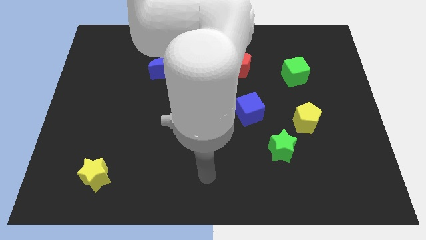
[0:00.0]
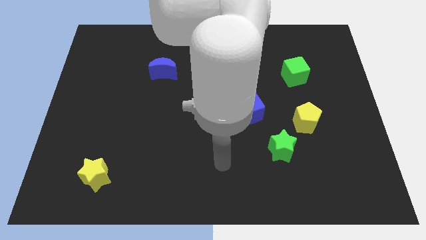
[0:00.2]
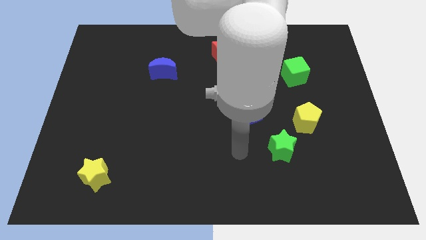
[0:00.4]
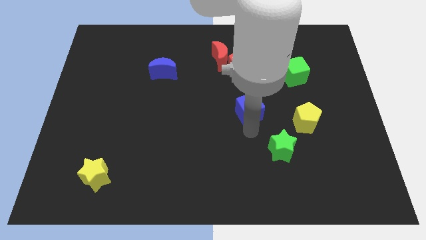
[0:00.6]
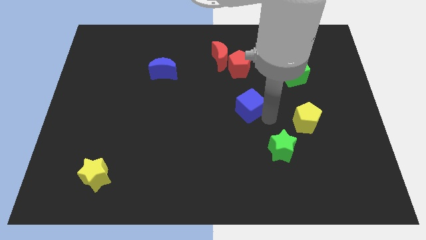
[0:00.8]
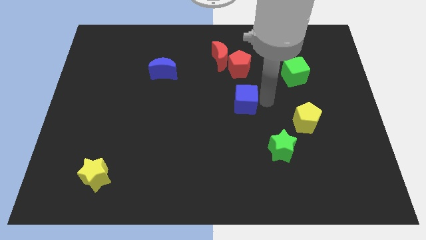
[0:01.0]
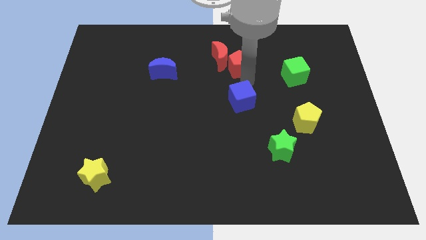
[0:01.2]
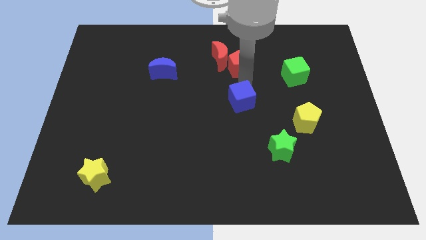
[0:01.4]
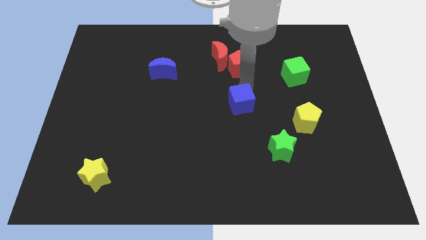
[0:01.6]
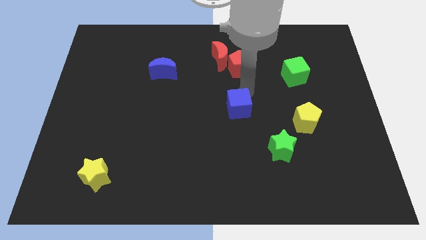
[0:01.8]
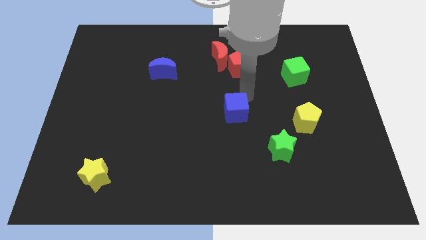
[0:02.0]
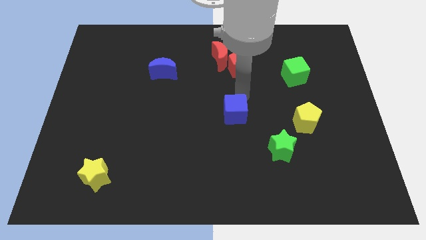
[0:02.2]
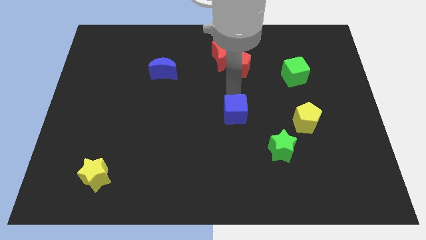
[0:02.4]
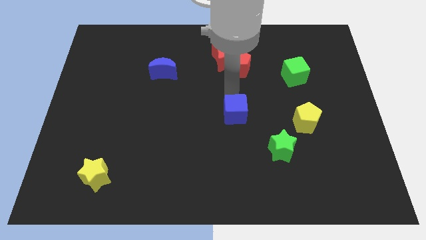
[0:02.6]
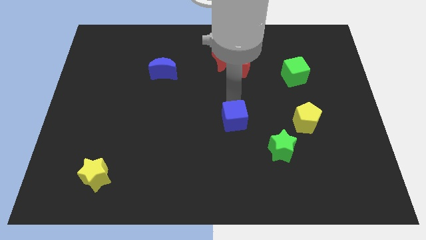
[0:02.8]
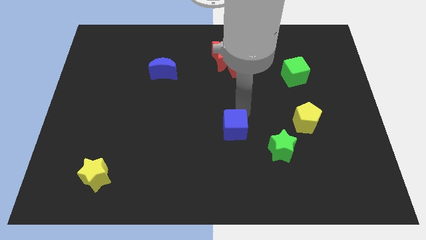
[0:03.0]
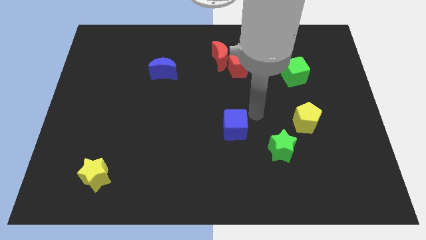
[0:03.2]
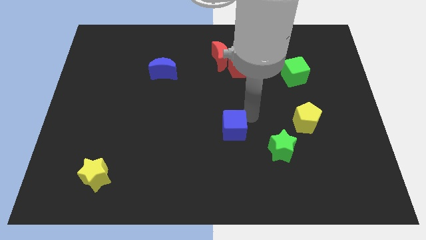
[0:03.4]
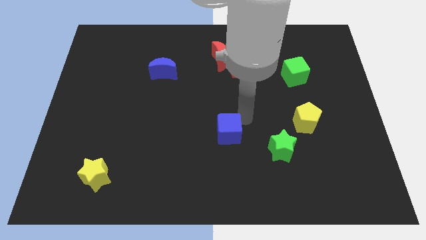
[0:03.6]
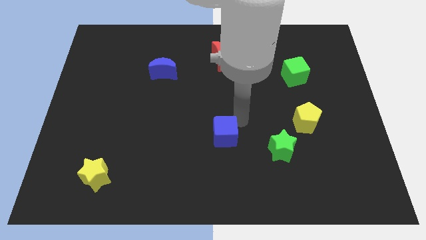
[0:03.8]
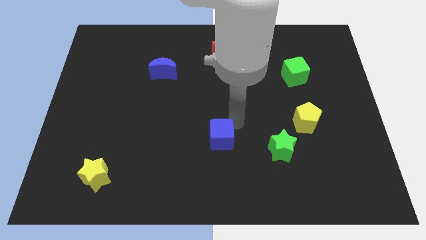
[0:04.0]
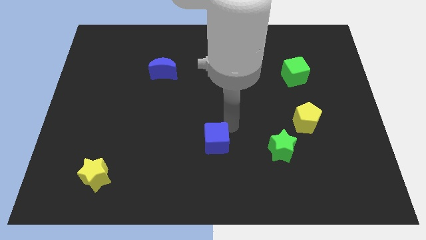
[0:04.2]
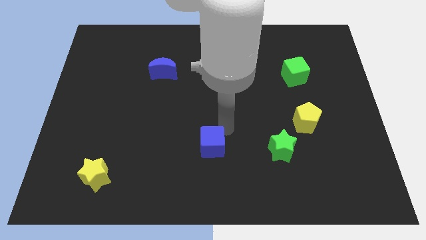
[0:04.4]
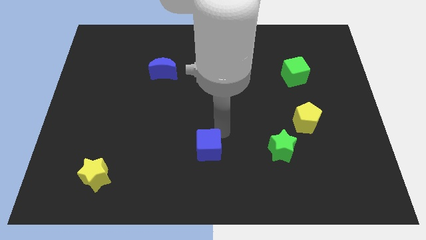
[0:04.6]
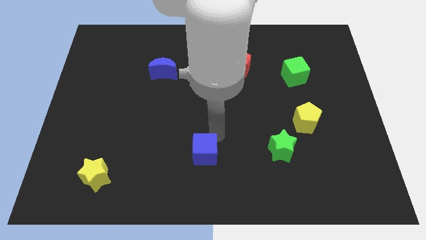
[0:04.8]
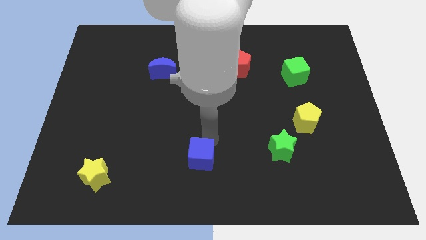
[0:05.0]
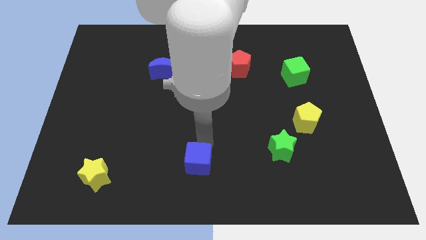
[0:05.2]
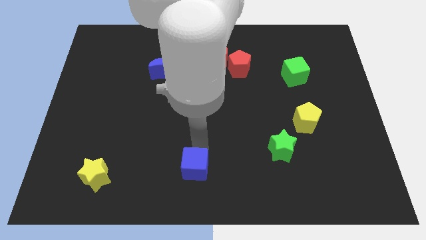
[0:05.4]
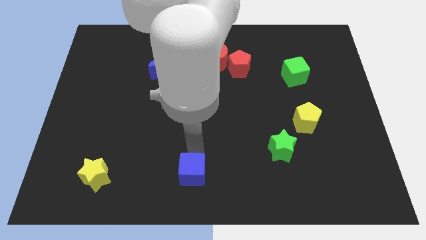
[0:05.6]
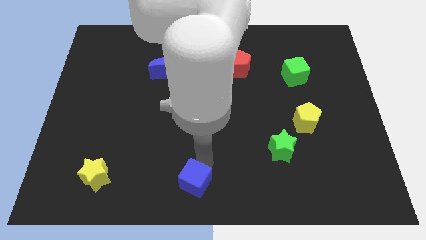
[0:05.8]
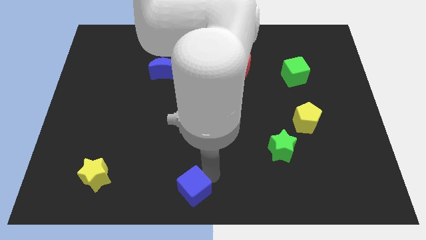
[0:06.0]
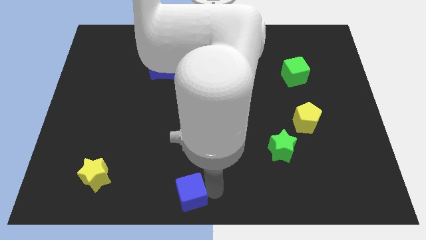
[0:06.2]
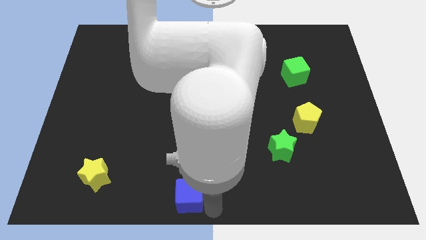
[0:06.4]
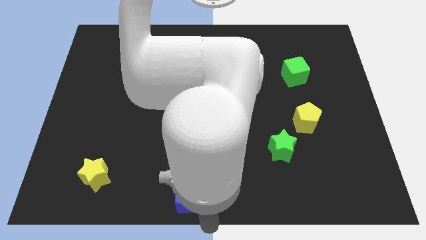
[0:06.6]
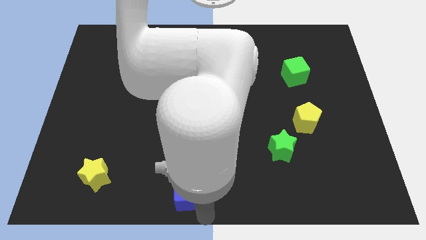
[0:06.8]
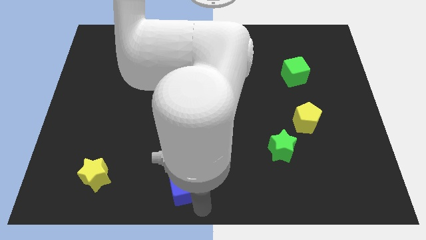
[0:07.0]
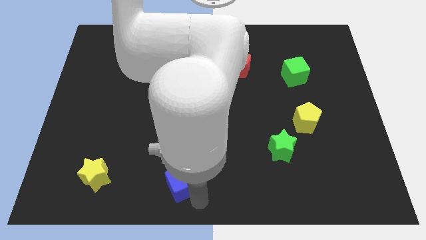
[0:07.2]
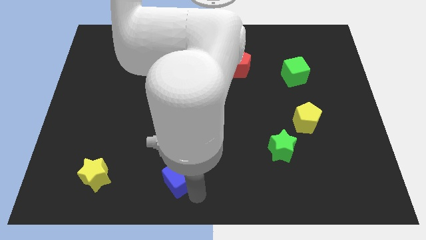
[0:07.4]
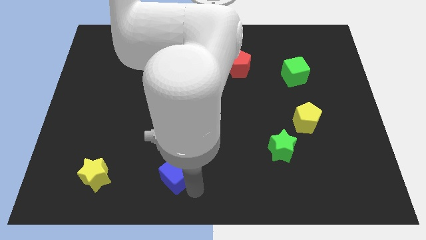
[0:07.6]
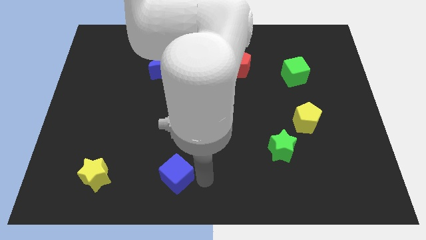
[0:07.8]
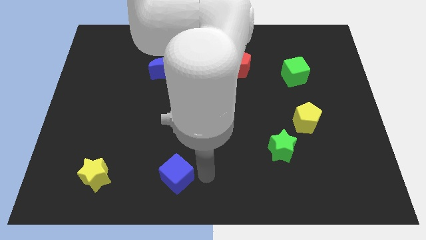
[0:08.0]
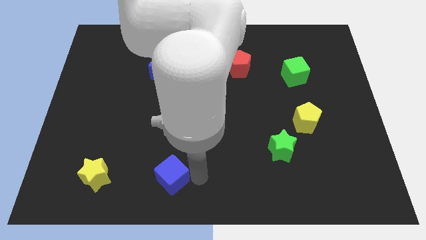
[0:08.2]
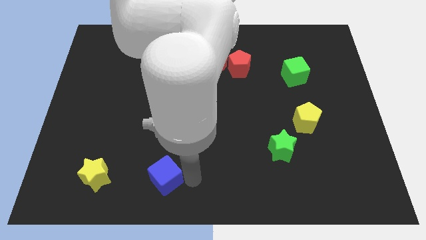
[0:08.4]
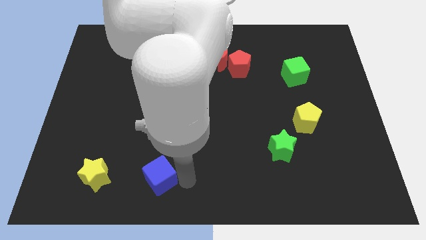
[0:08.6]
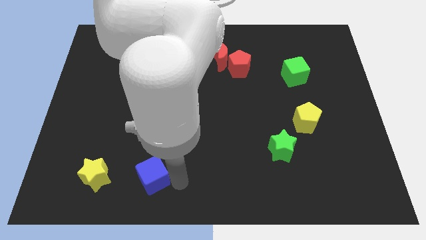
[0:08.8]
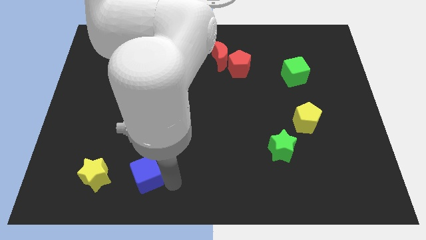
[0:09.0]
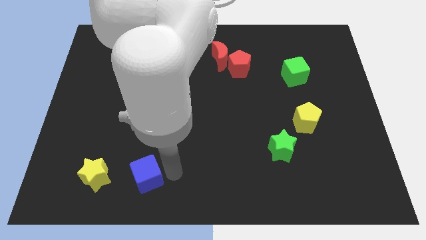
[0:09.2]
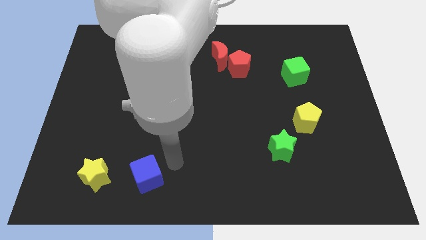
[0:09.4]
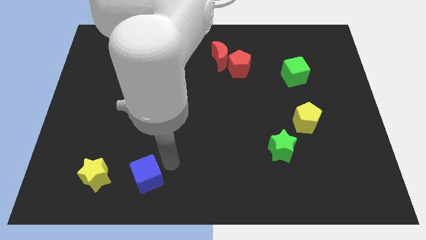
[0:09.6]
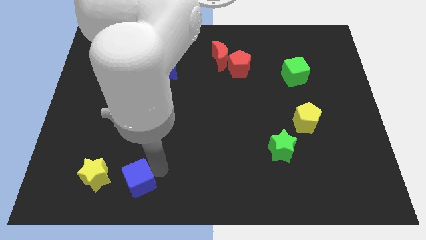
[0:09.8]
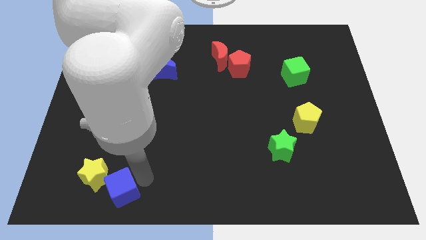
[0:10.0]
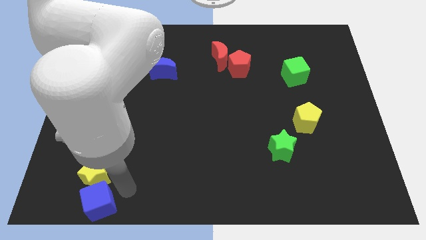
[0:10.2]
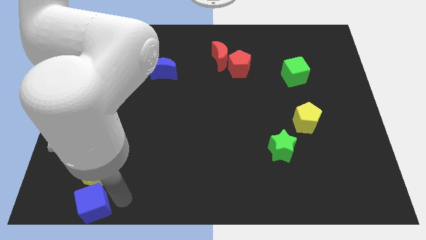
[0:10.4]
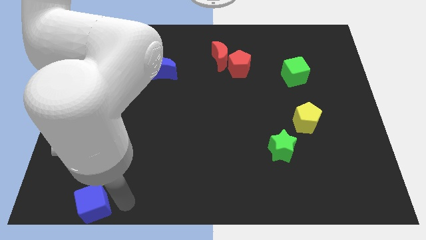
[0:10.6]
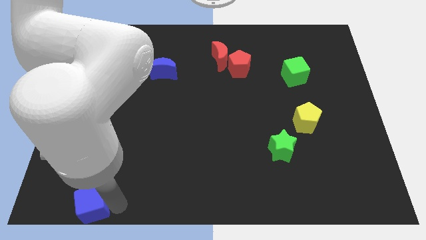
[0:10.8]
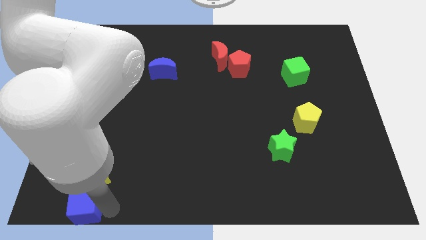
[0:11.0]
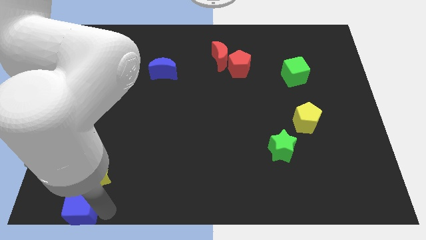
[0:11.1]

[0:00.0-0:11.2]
put the blue cube to the bottom left corner
